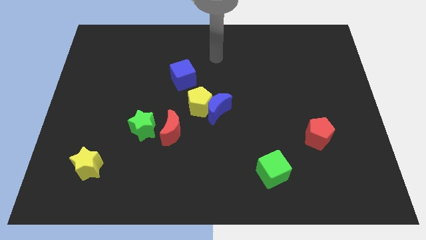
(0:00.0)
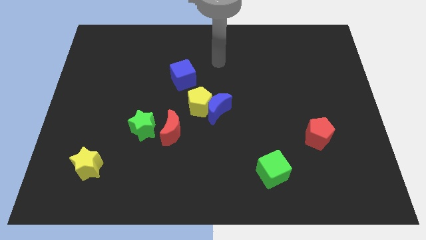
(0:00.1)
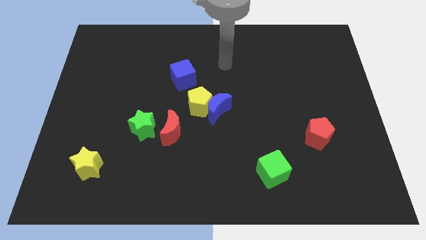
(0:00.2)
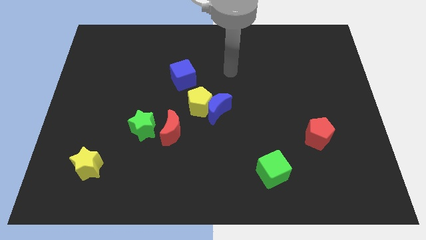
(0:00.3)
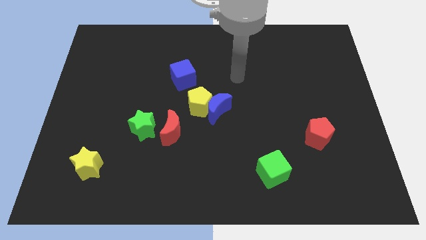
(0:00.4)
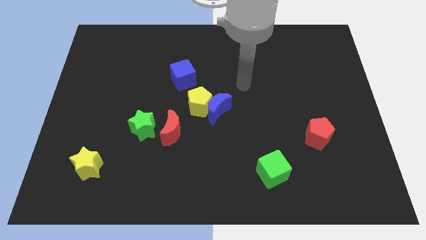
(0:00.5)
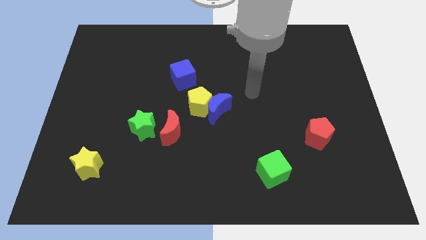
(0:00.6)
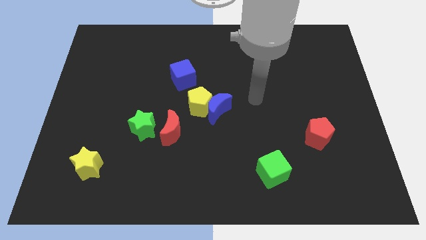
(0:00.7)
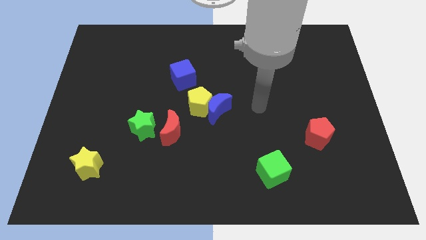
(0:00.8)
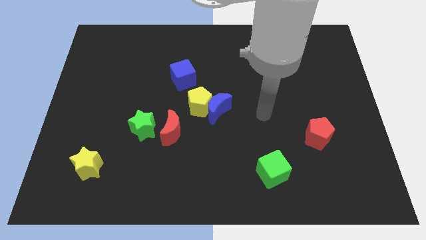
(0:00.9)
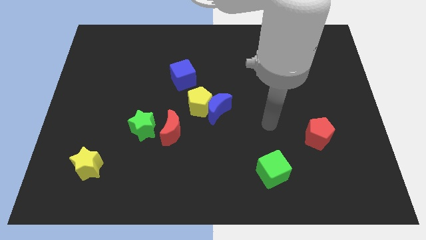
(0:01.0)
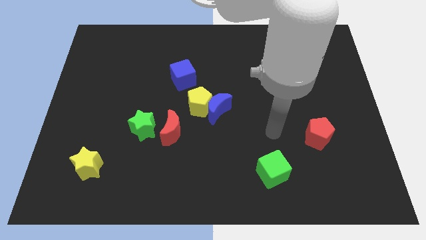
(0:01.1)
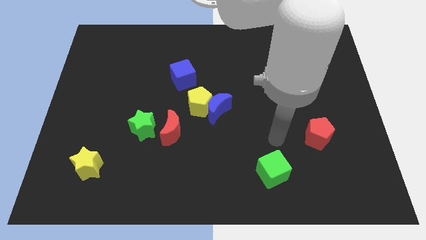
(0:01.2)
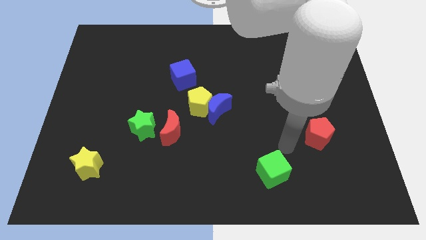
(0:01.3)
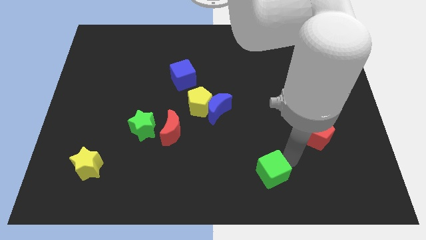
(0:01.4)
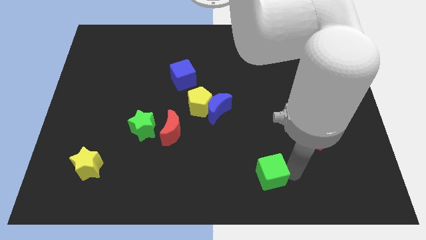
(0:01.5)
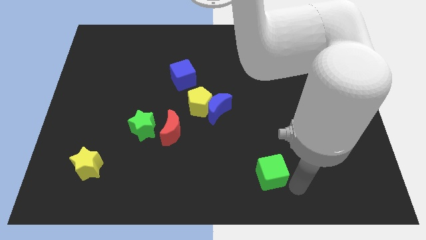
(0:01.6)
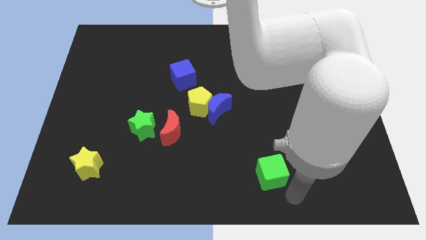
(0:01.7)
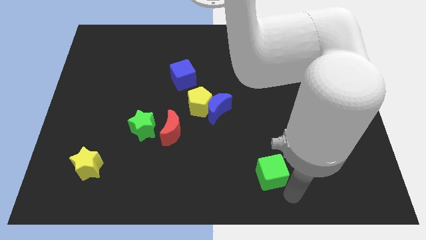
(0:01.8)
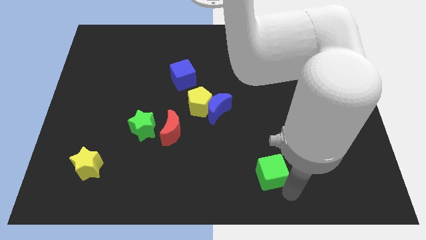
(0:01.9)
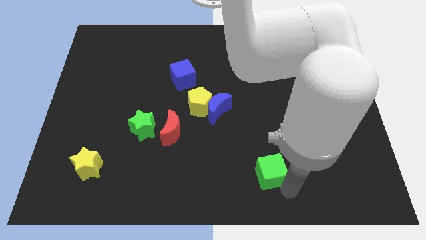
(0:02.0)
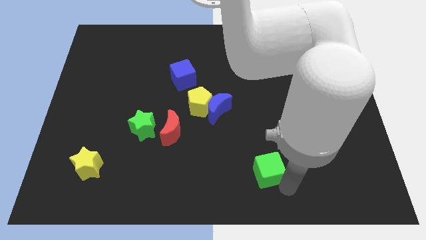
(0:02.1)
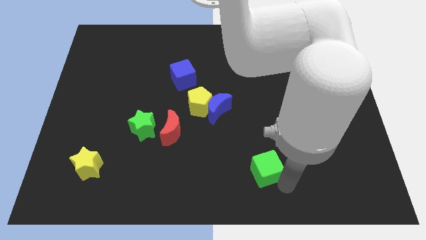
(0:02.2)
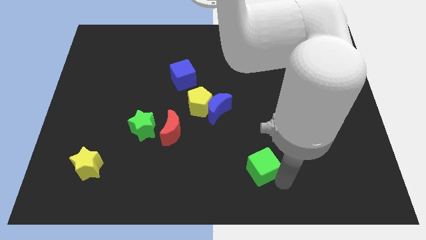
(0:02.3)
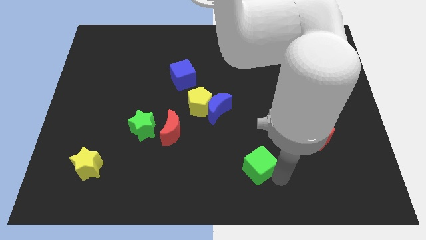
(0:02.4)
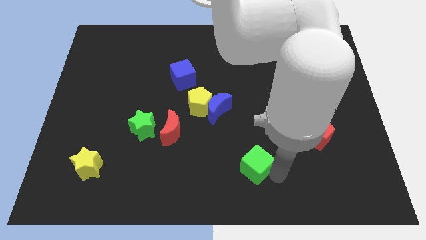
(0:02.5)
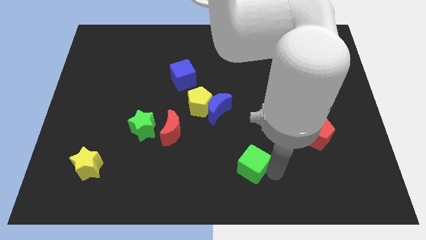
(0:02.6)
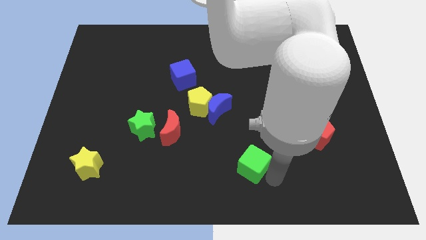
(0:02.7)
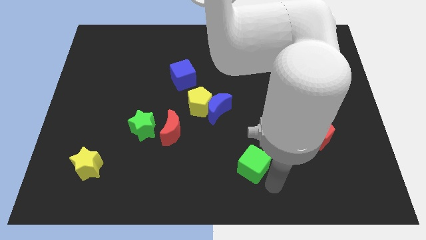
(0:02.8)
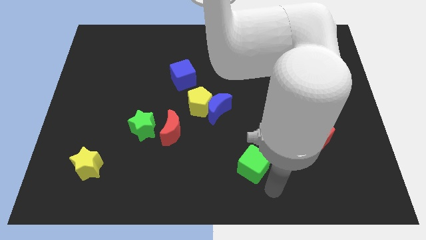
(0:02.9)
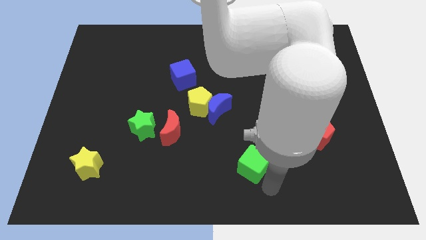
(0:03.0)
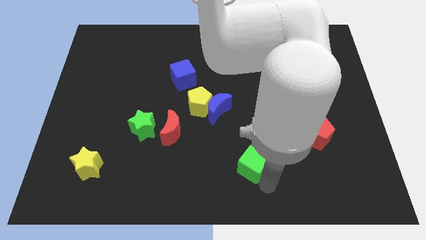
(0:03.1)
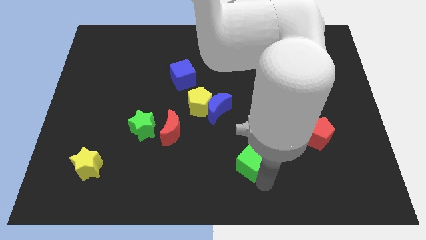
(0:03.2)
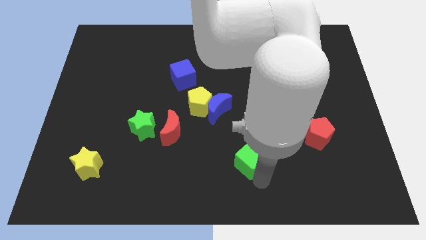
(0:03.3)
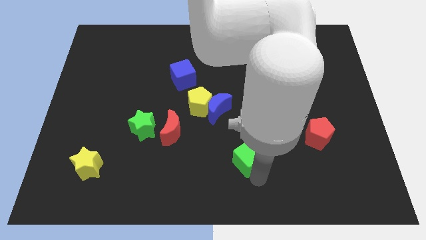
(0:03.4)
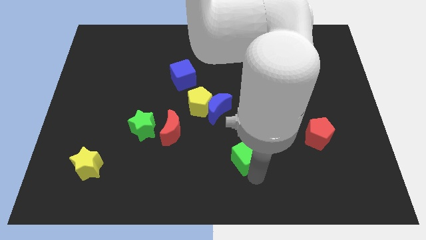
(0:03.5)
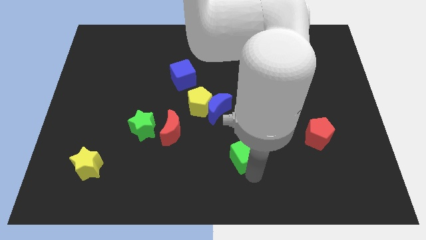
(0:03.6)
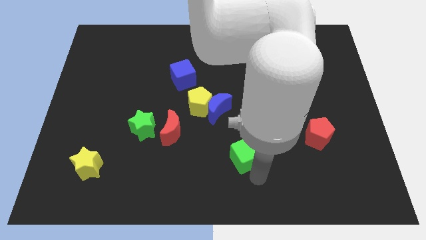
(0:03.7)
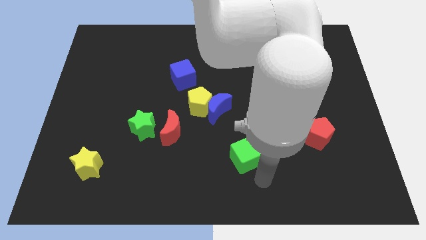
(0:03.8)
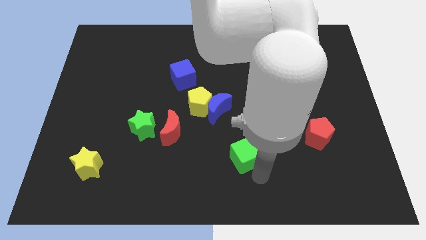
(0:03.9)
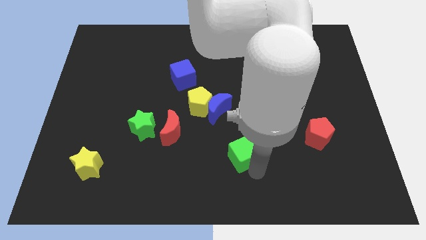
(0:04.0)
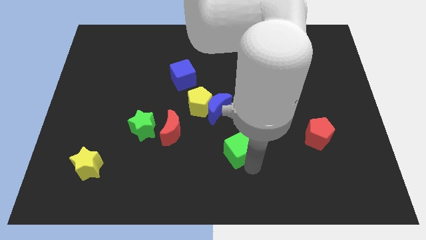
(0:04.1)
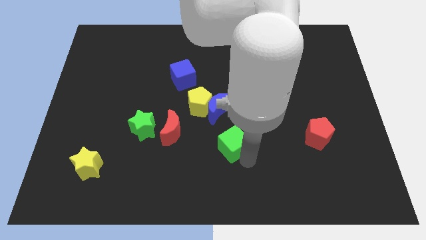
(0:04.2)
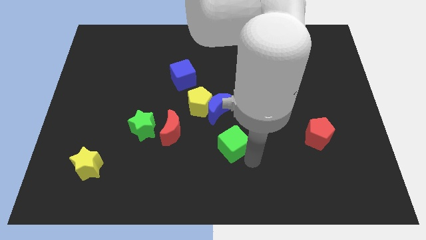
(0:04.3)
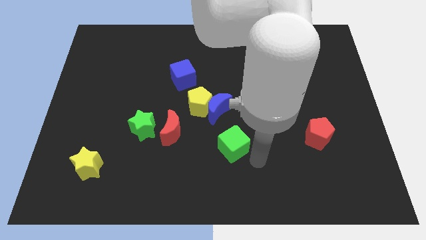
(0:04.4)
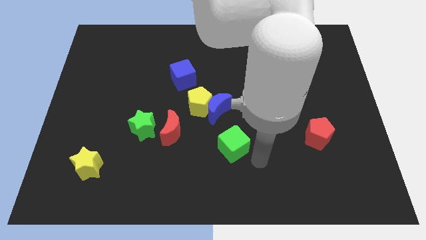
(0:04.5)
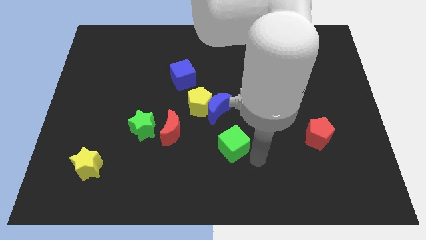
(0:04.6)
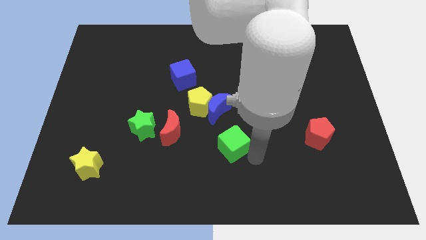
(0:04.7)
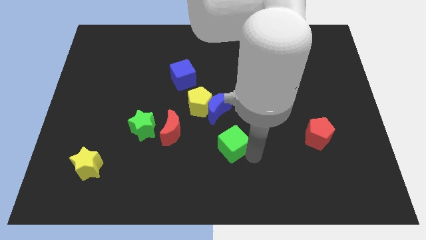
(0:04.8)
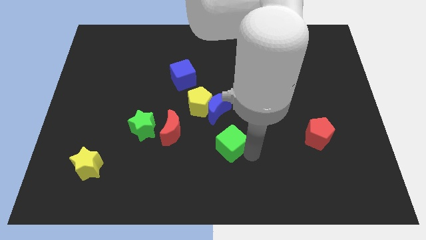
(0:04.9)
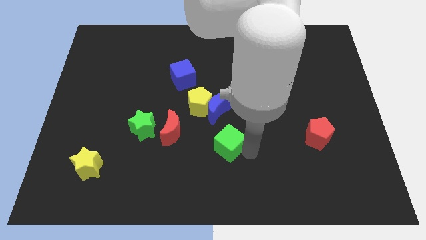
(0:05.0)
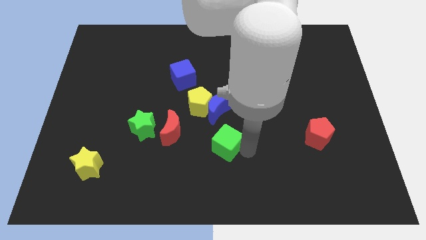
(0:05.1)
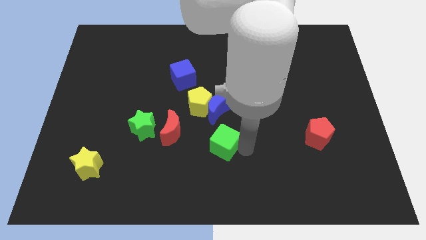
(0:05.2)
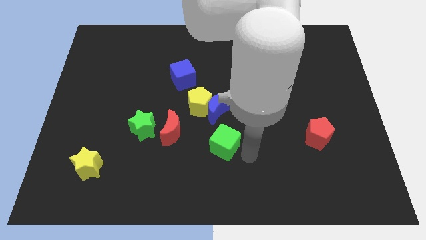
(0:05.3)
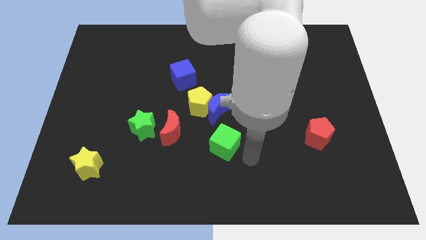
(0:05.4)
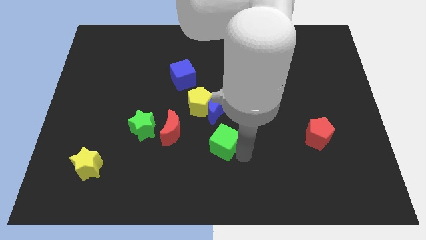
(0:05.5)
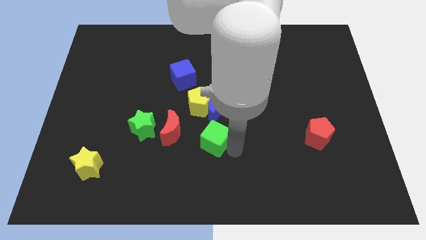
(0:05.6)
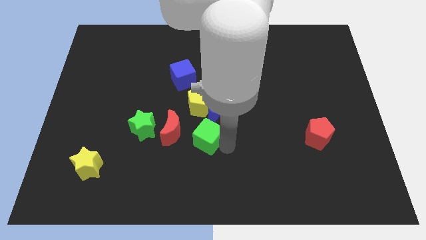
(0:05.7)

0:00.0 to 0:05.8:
move the green cube to the bottom left side of the blue moon

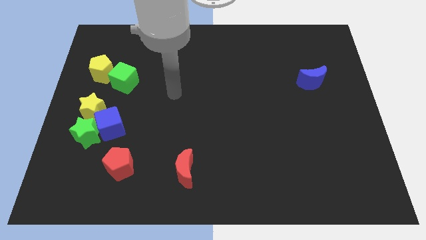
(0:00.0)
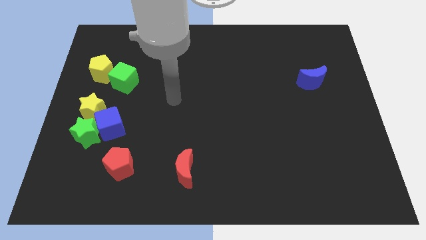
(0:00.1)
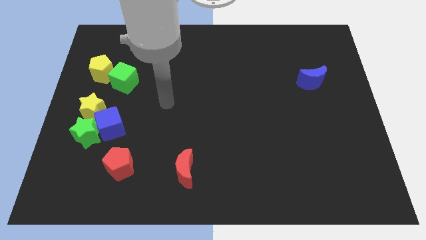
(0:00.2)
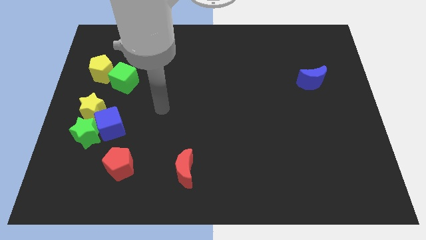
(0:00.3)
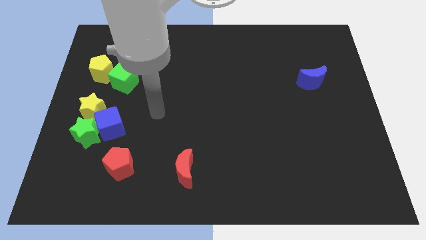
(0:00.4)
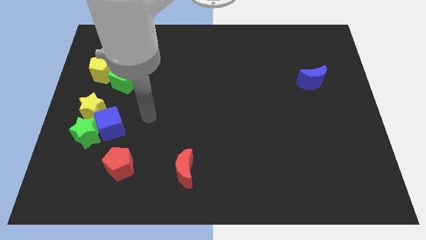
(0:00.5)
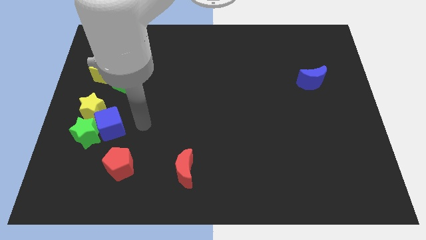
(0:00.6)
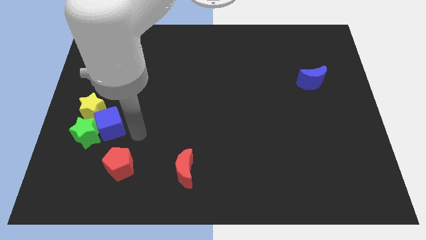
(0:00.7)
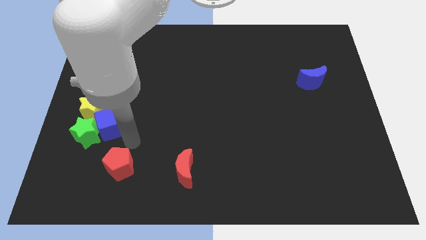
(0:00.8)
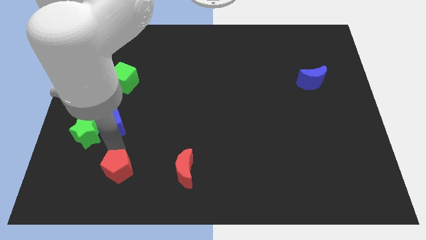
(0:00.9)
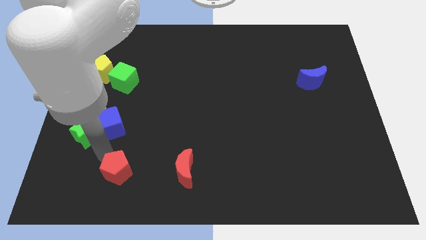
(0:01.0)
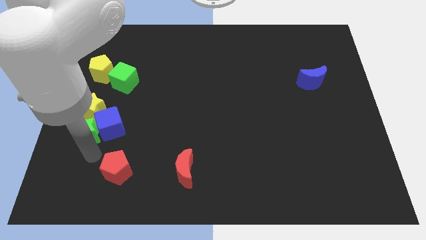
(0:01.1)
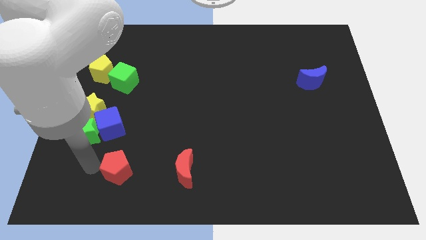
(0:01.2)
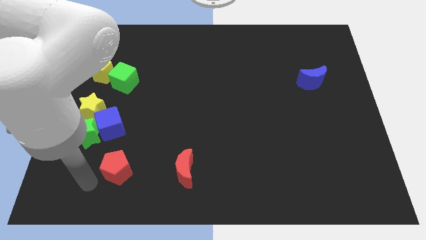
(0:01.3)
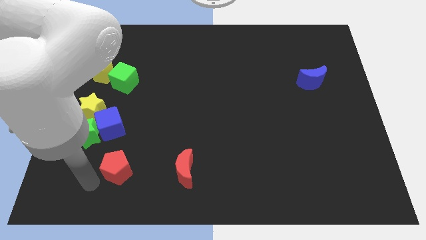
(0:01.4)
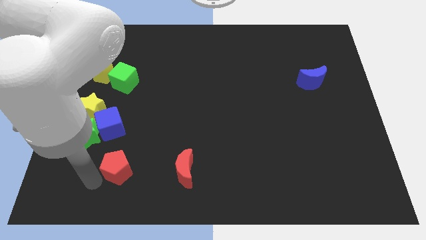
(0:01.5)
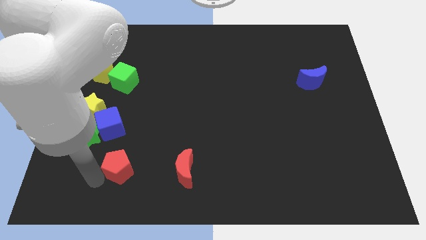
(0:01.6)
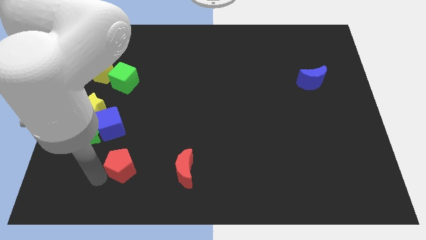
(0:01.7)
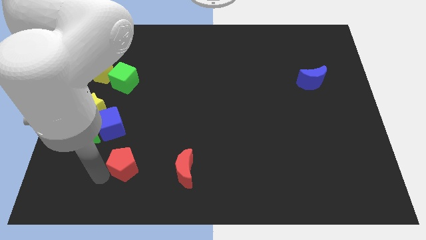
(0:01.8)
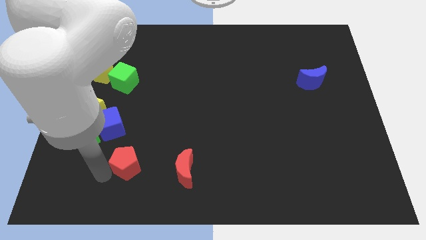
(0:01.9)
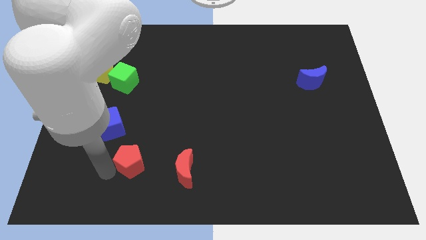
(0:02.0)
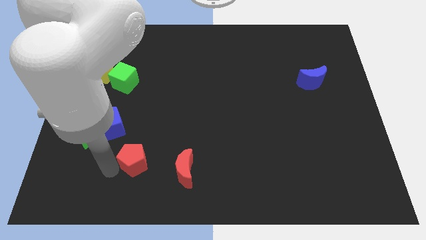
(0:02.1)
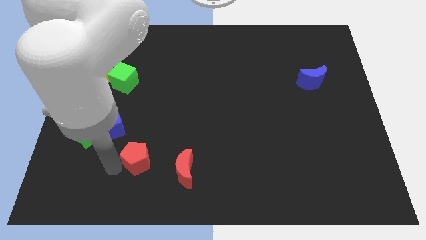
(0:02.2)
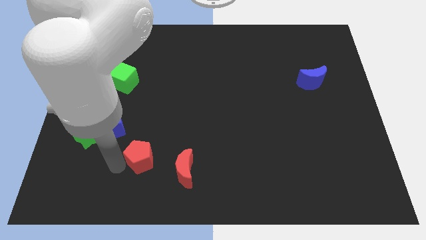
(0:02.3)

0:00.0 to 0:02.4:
slide the red pentagon to the top left side of the red moon
